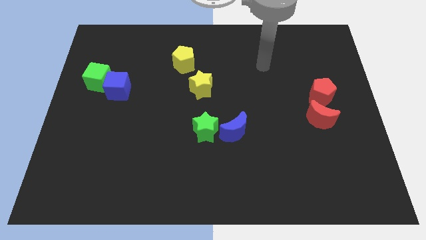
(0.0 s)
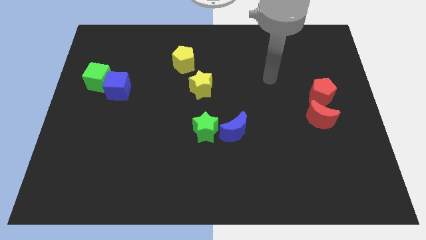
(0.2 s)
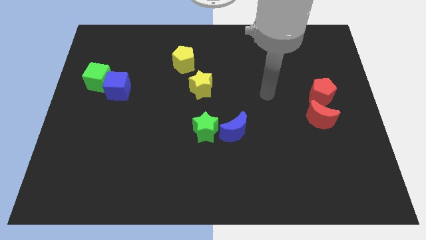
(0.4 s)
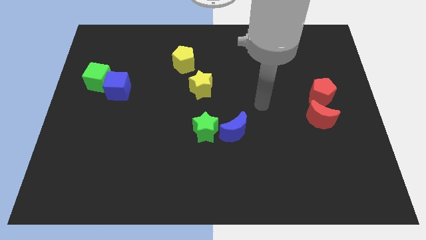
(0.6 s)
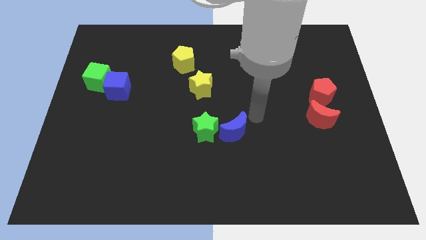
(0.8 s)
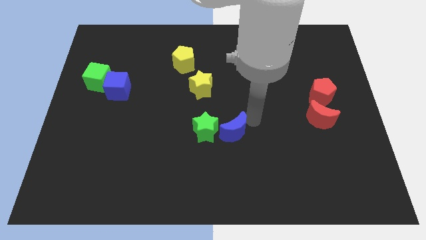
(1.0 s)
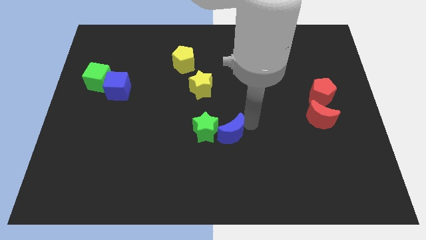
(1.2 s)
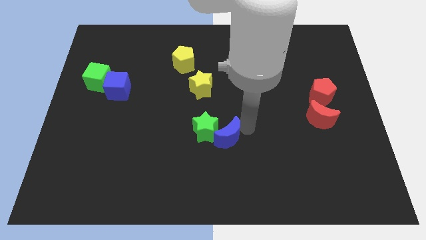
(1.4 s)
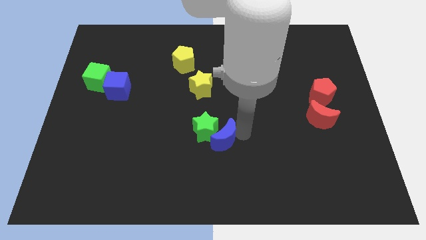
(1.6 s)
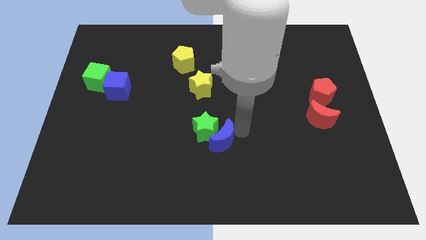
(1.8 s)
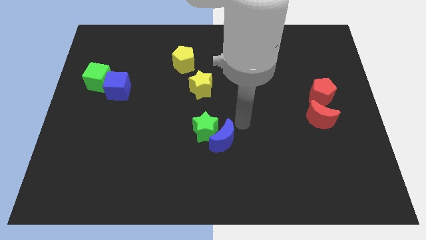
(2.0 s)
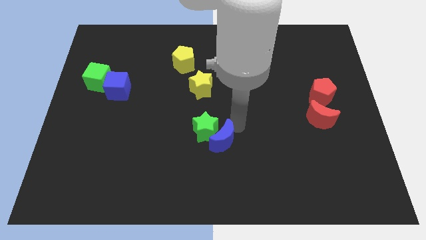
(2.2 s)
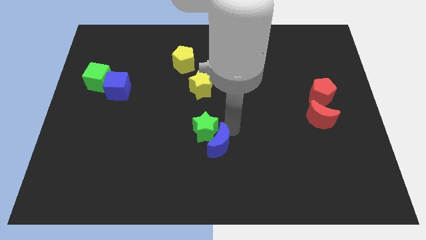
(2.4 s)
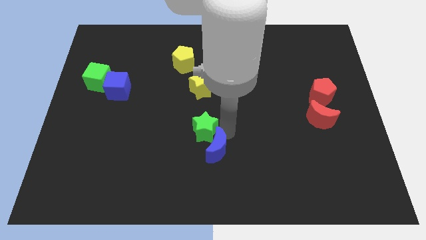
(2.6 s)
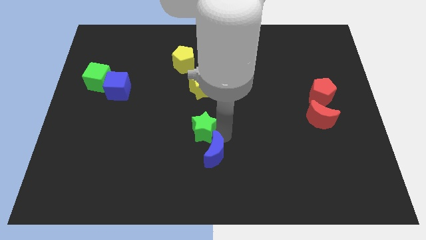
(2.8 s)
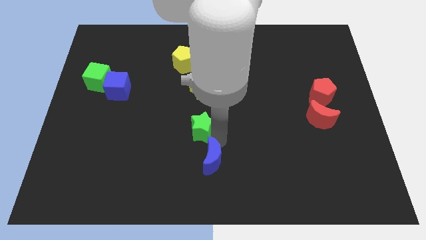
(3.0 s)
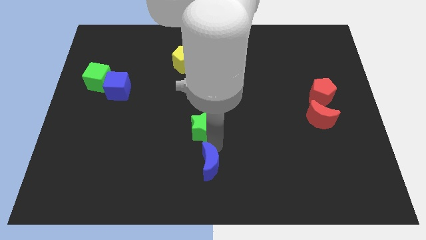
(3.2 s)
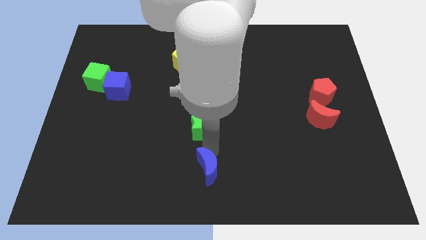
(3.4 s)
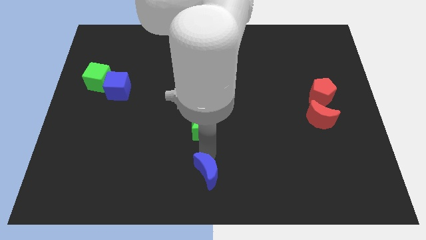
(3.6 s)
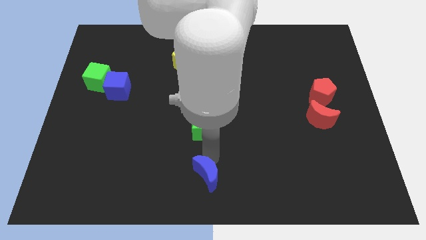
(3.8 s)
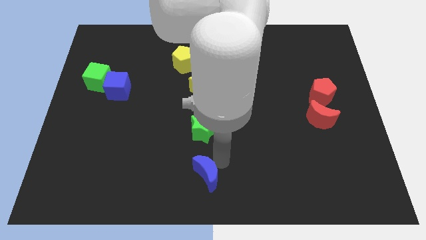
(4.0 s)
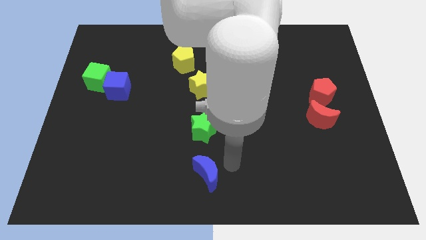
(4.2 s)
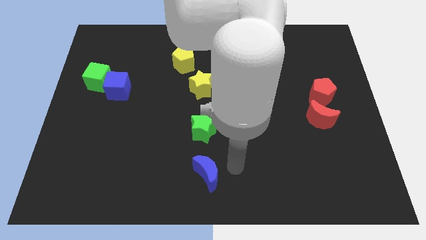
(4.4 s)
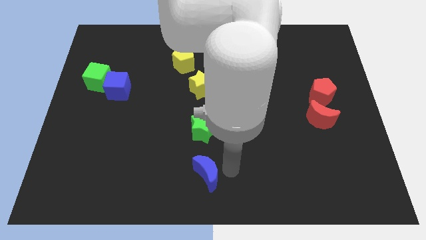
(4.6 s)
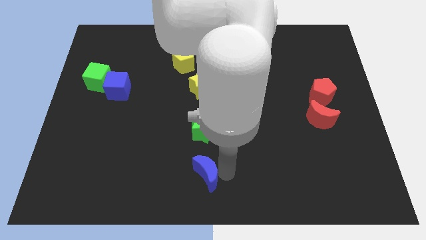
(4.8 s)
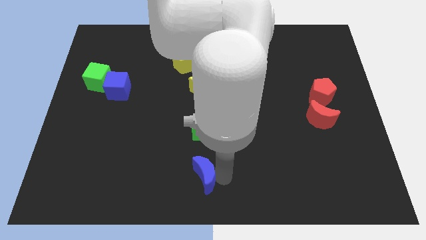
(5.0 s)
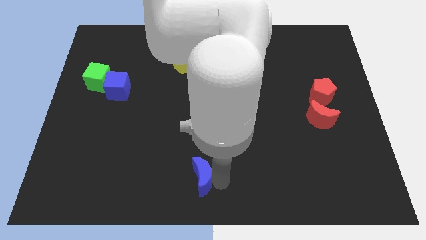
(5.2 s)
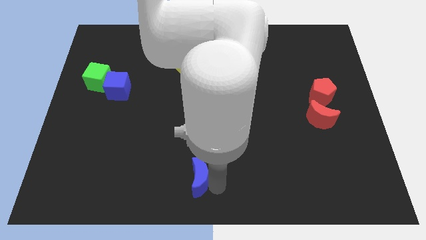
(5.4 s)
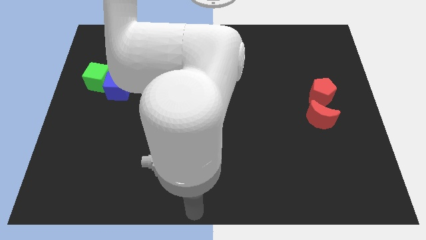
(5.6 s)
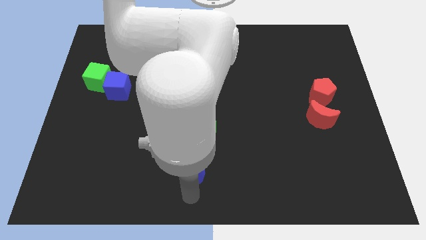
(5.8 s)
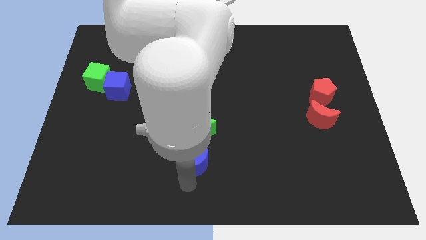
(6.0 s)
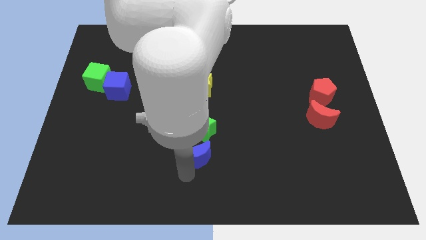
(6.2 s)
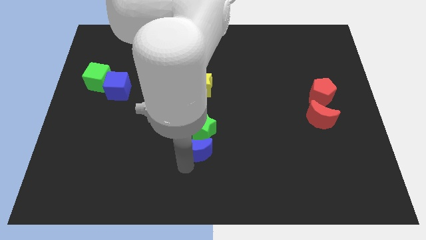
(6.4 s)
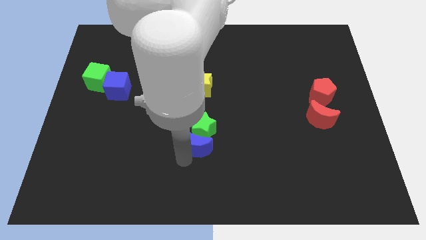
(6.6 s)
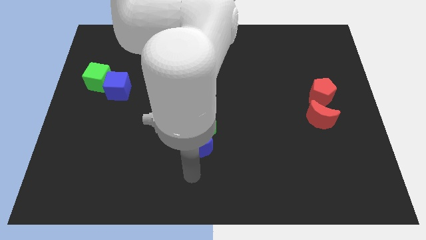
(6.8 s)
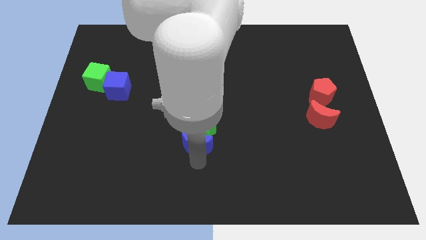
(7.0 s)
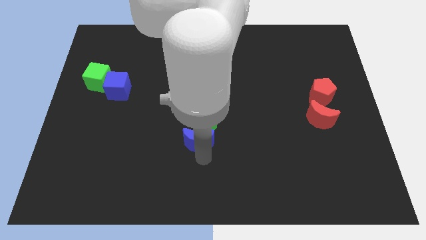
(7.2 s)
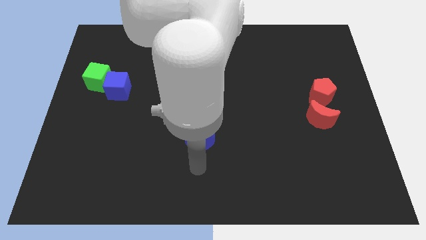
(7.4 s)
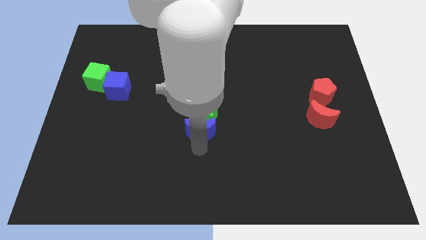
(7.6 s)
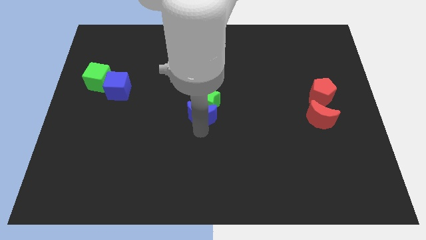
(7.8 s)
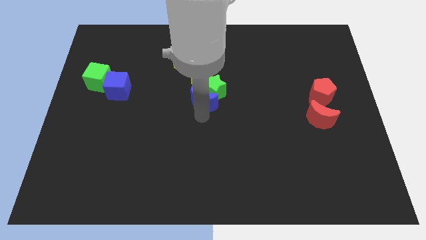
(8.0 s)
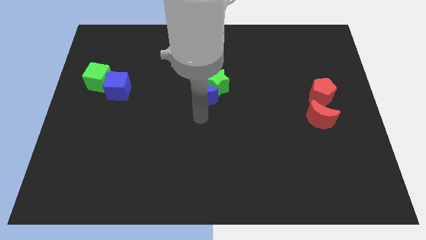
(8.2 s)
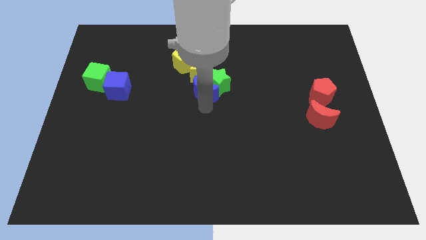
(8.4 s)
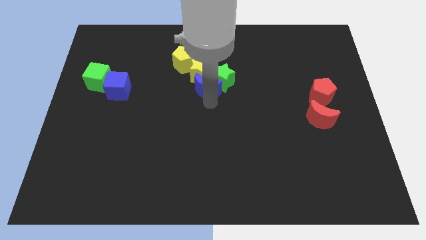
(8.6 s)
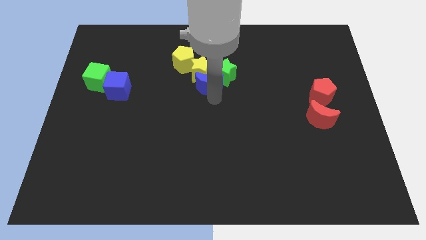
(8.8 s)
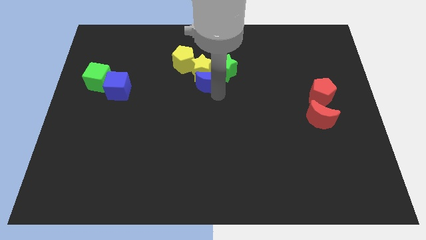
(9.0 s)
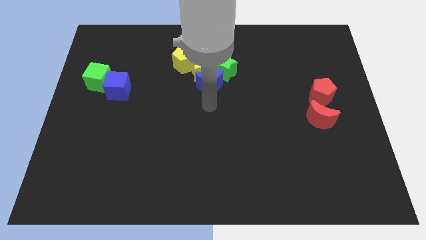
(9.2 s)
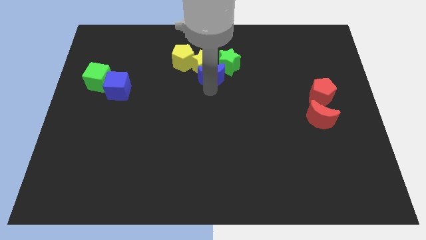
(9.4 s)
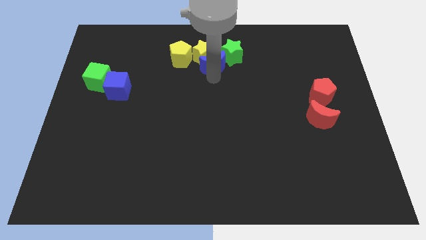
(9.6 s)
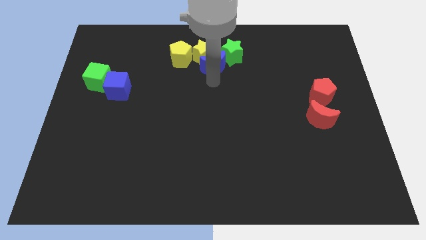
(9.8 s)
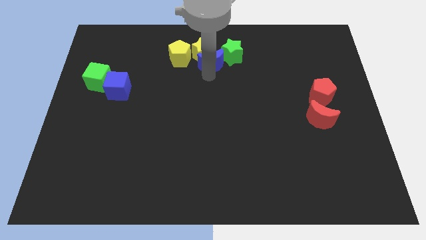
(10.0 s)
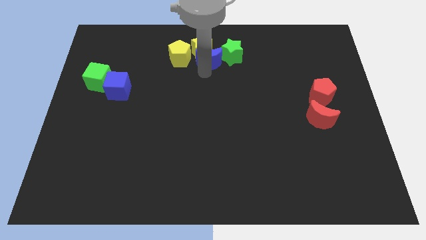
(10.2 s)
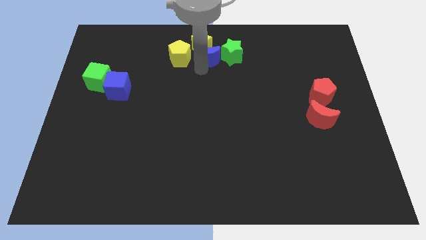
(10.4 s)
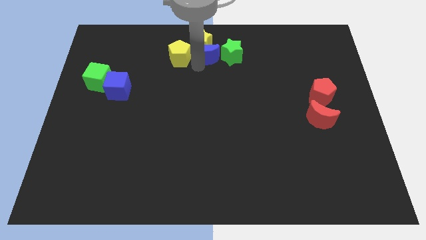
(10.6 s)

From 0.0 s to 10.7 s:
slide the blue moon to the towards your base

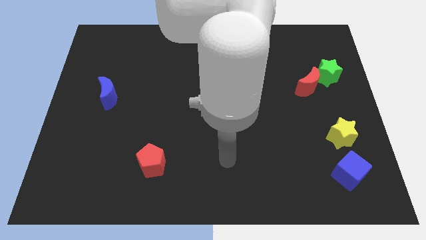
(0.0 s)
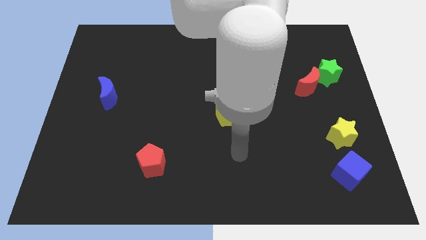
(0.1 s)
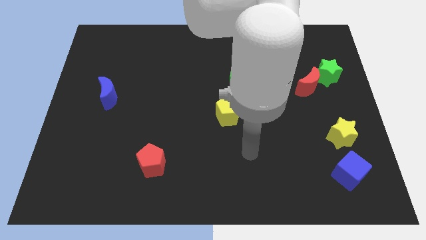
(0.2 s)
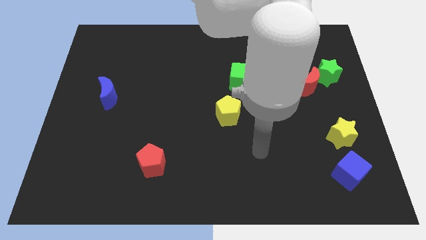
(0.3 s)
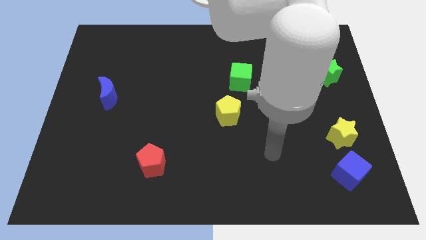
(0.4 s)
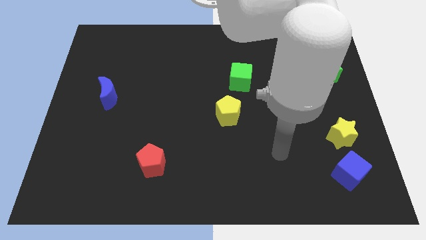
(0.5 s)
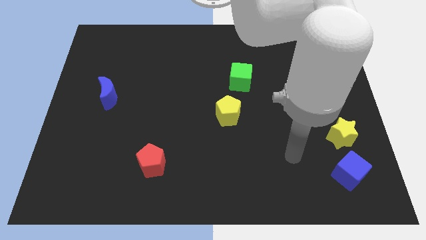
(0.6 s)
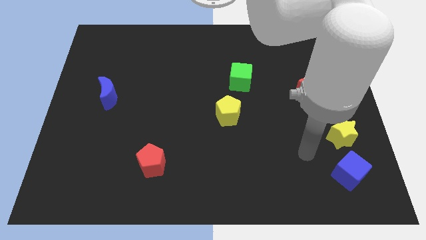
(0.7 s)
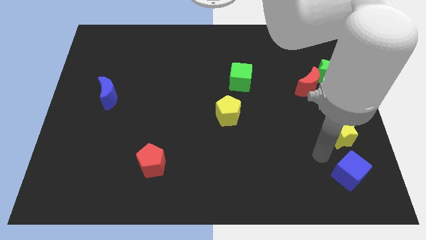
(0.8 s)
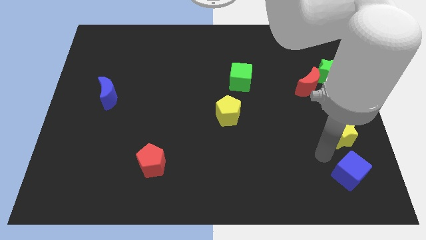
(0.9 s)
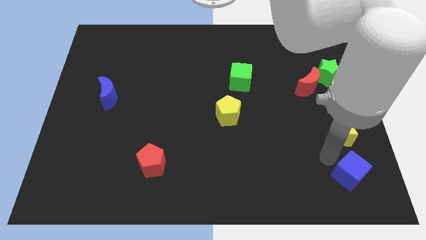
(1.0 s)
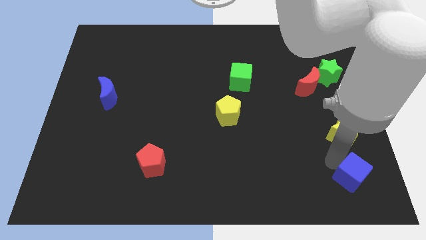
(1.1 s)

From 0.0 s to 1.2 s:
move the blue cube to the bottom right
